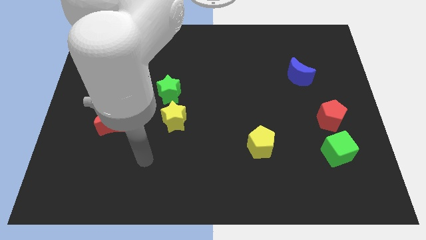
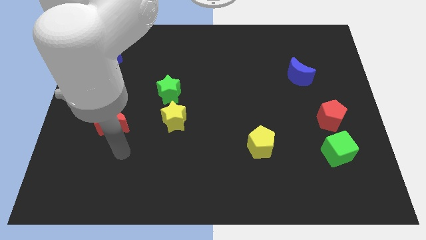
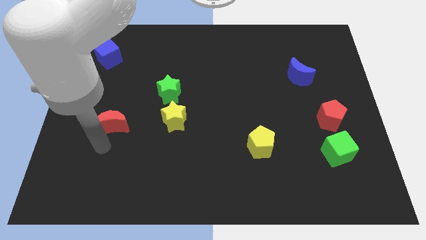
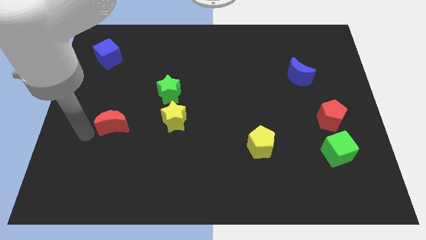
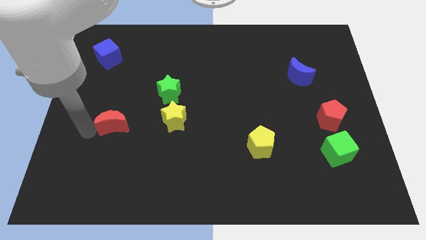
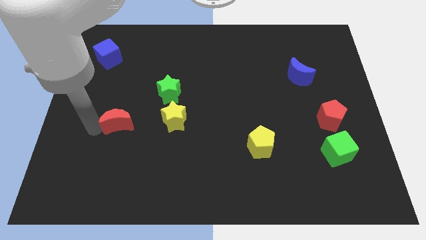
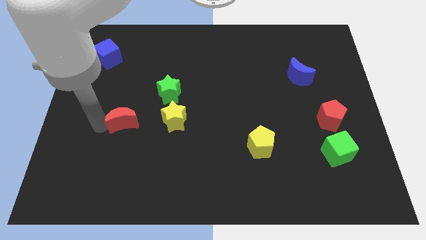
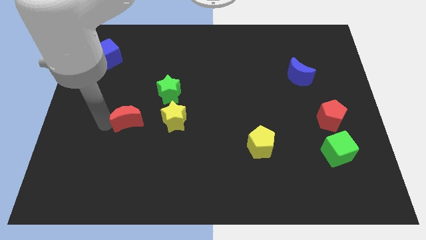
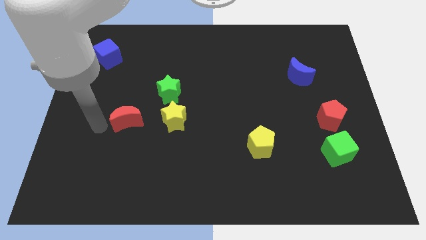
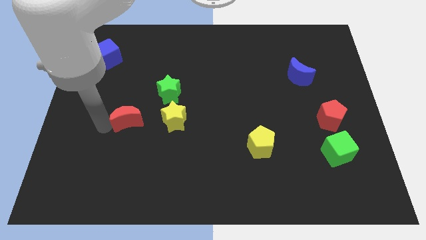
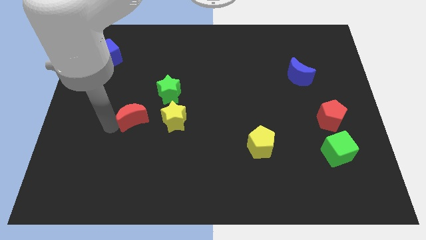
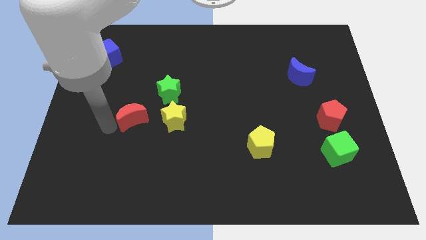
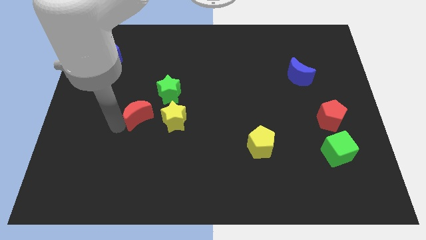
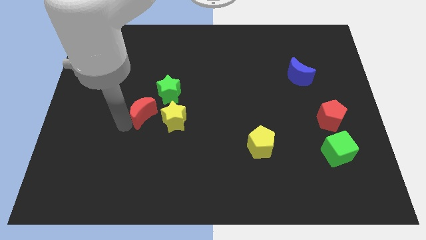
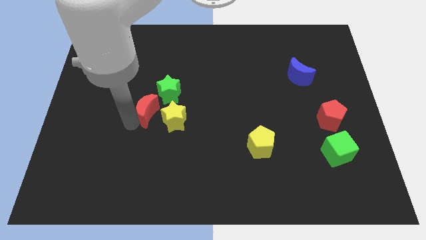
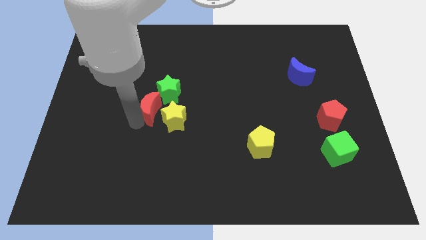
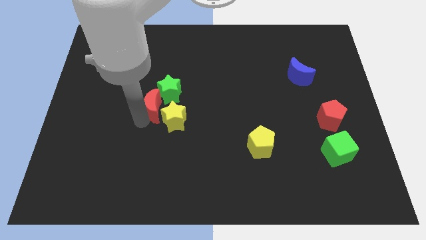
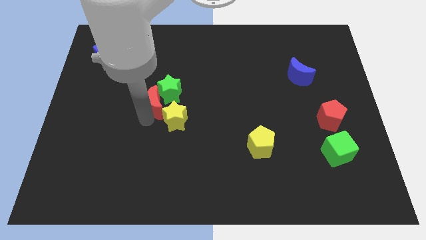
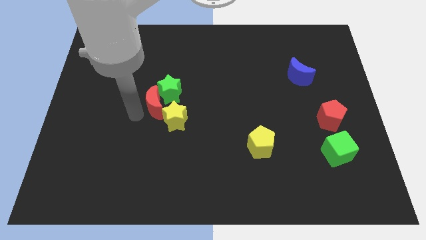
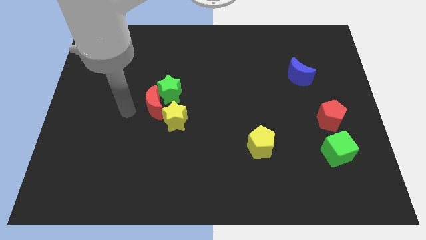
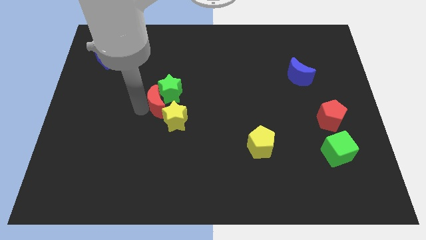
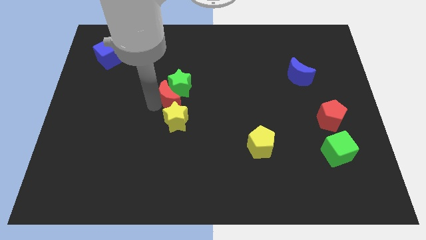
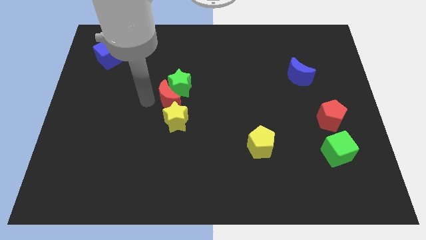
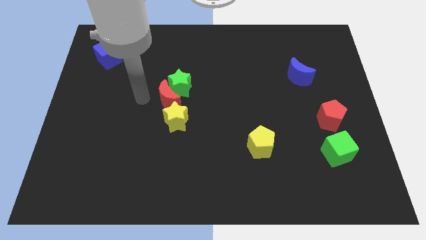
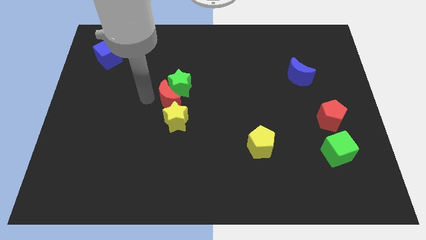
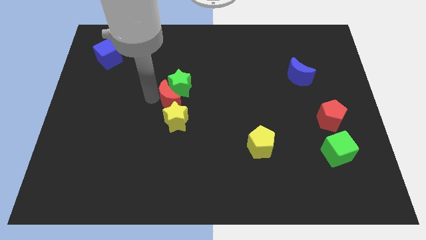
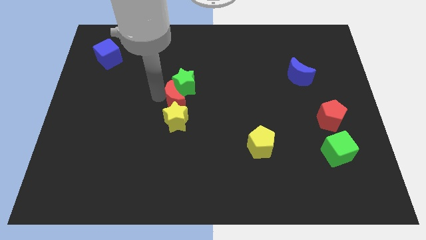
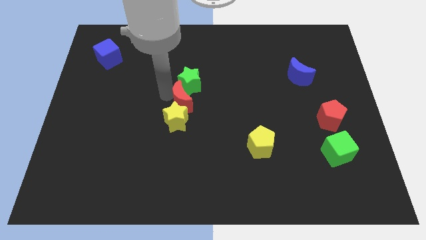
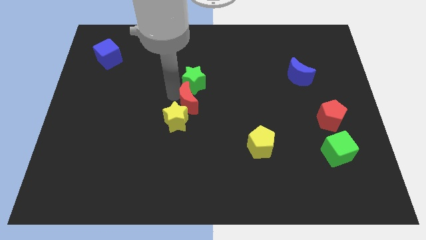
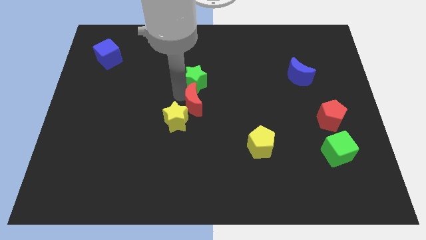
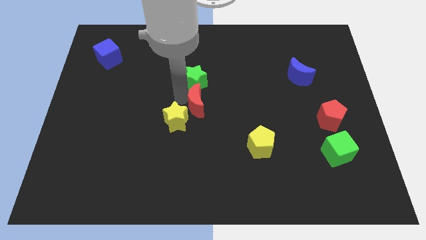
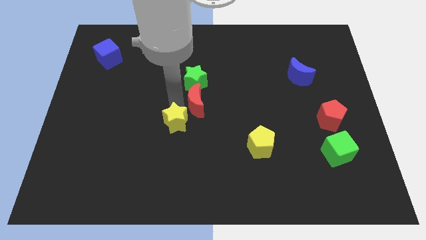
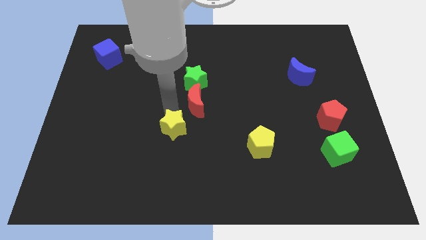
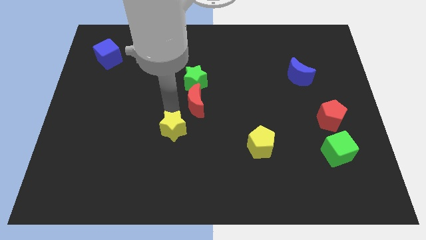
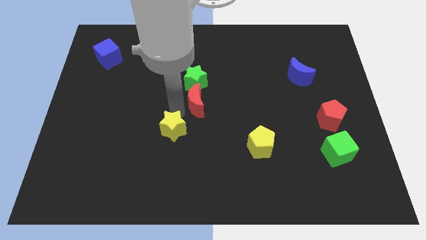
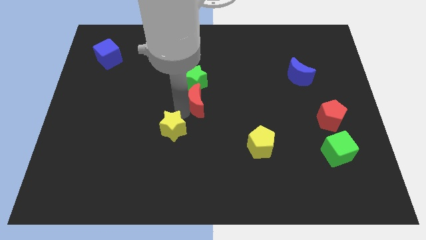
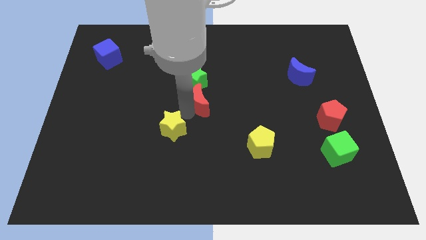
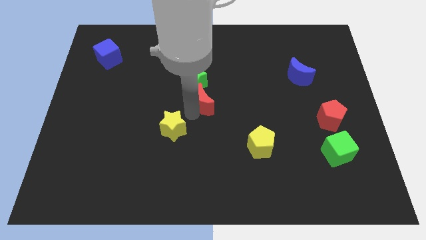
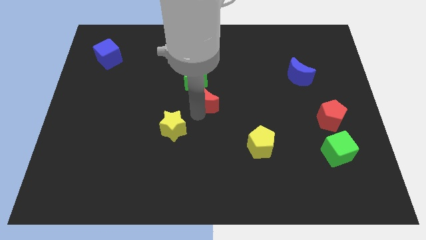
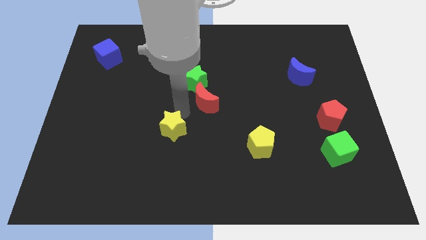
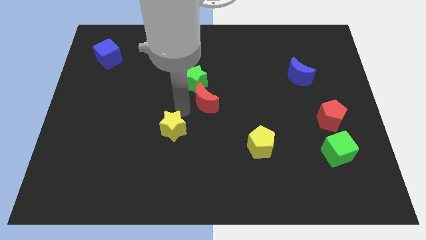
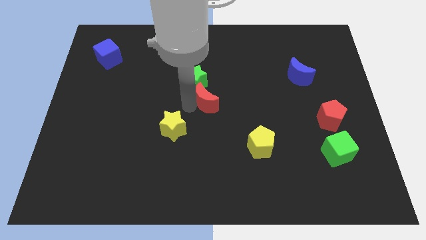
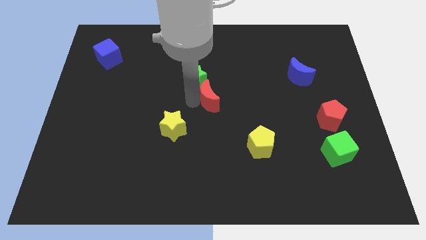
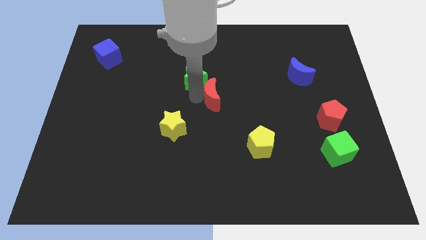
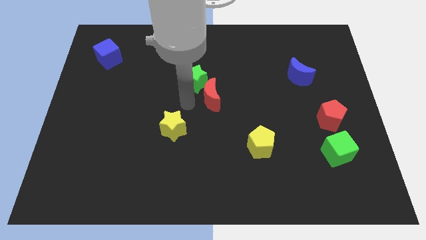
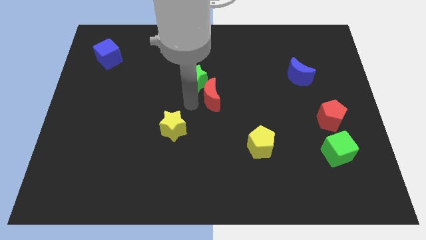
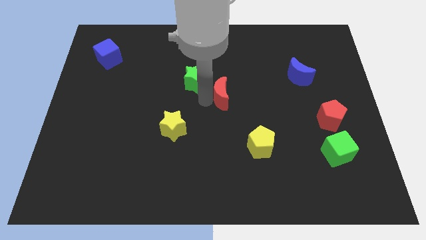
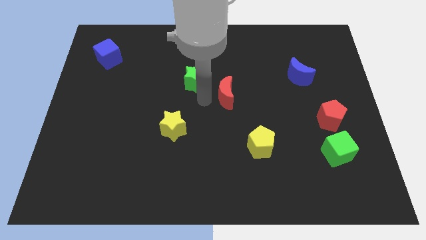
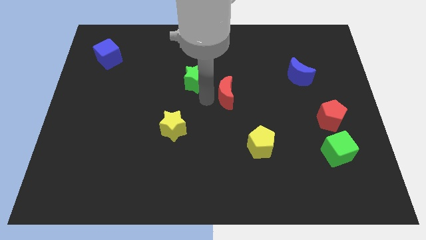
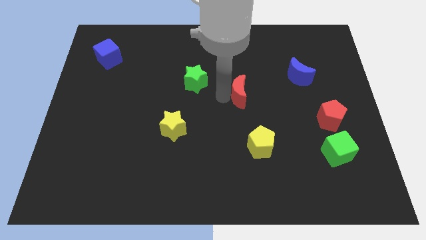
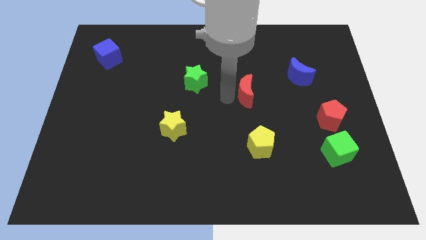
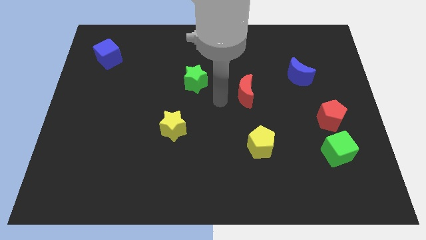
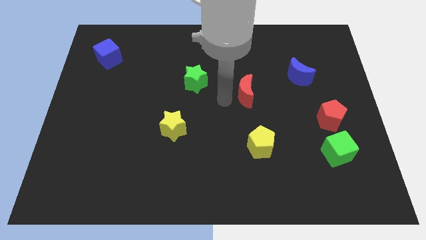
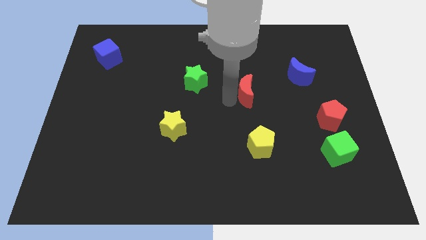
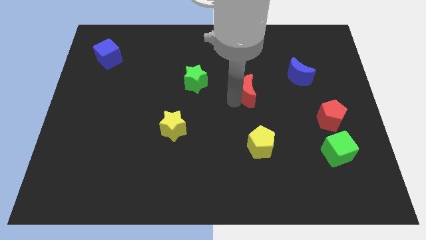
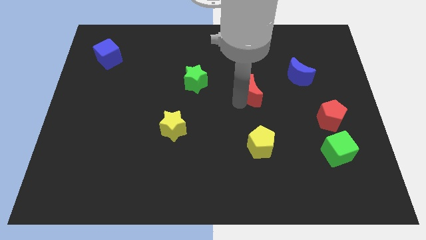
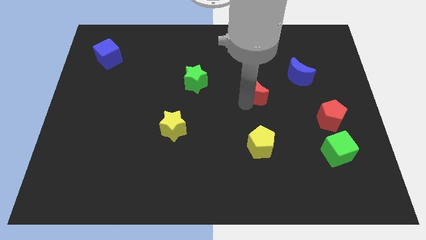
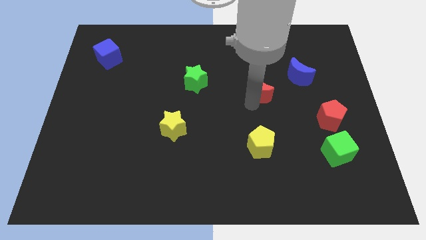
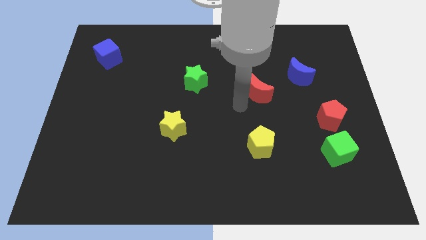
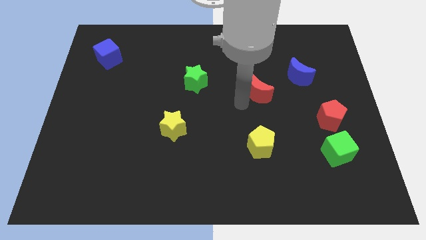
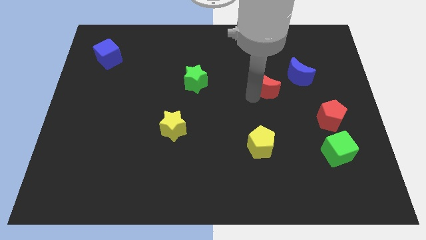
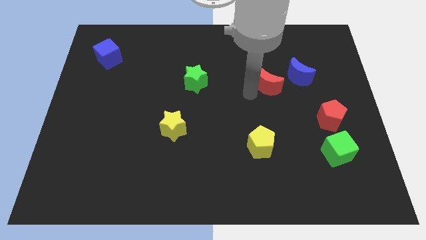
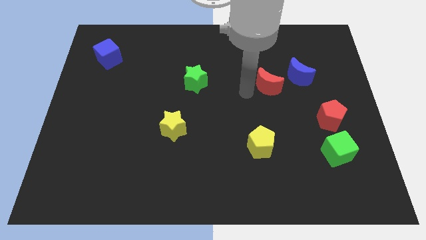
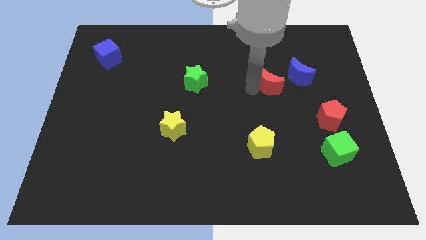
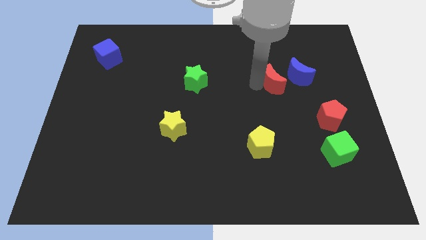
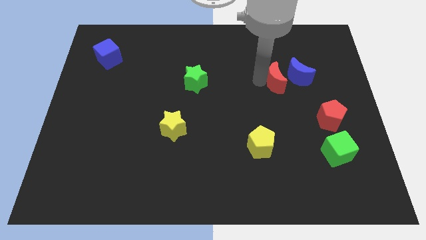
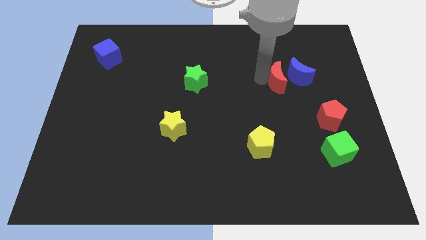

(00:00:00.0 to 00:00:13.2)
slide the red moon next to the blue moon
